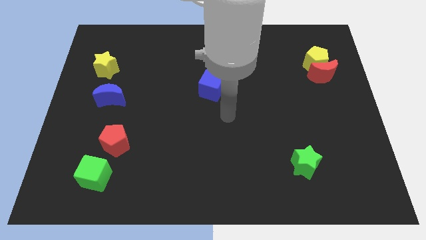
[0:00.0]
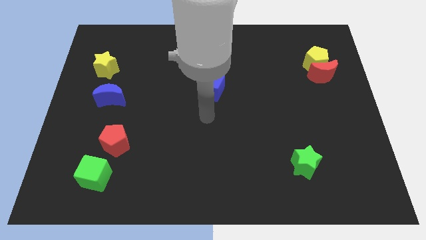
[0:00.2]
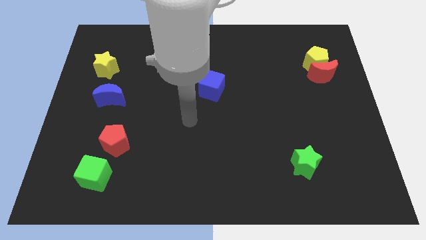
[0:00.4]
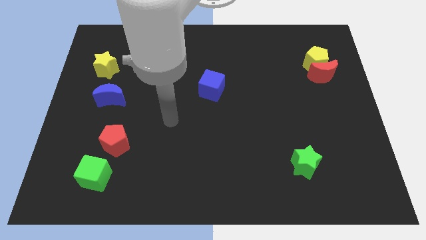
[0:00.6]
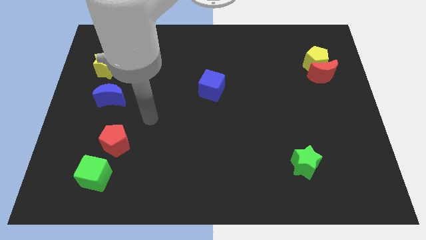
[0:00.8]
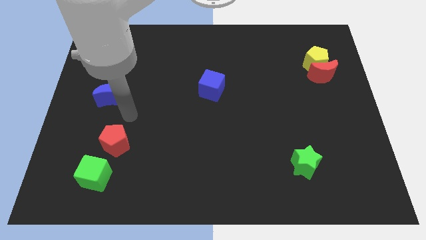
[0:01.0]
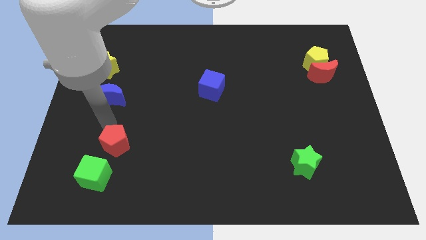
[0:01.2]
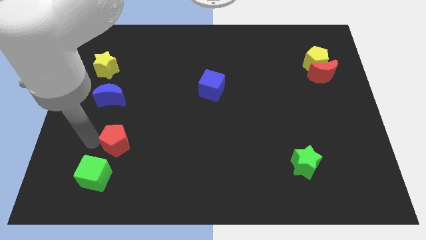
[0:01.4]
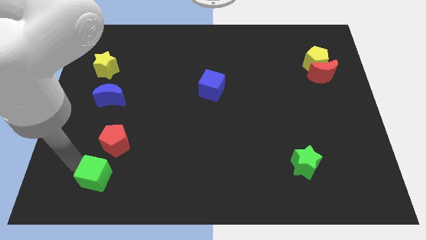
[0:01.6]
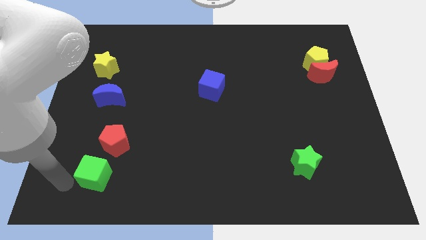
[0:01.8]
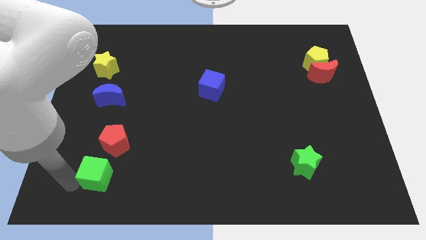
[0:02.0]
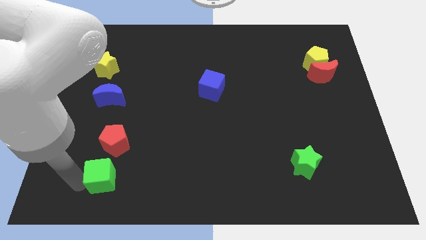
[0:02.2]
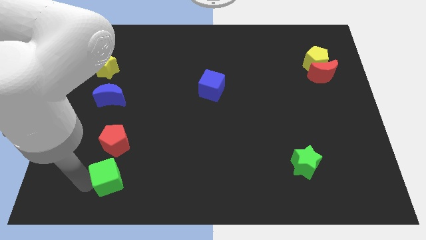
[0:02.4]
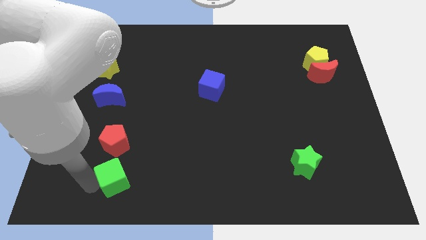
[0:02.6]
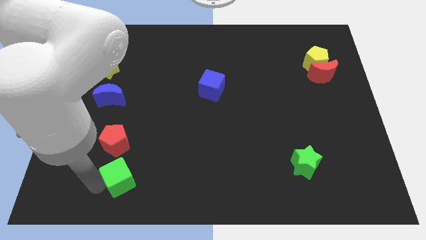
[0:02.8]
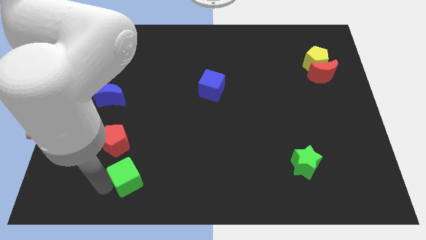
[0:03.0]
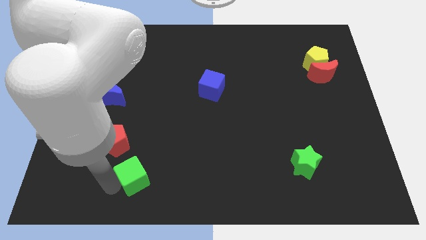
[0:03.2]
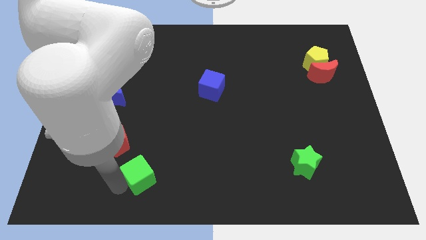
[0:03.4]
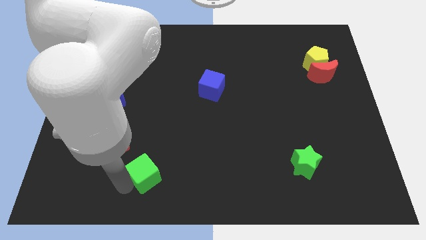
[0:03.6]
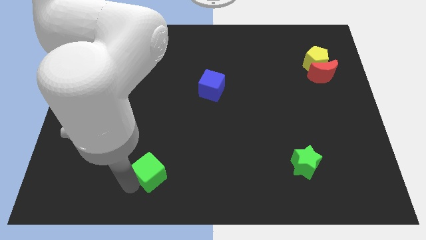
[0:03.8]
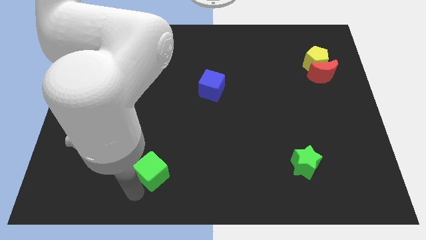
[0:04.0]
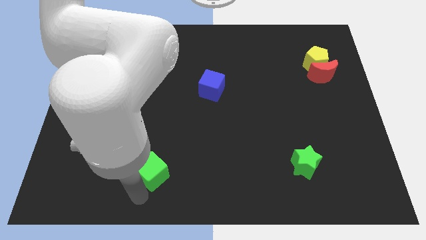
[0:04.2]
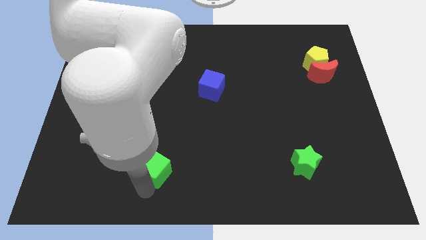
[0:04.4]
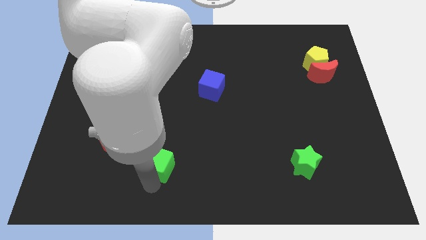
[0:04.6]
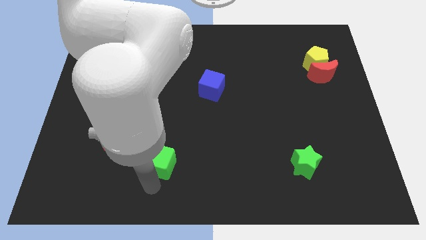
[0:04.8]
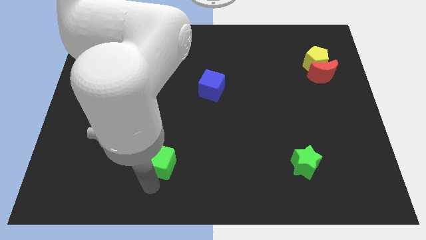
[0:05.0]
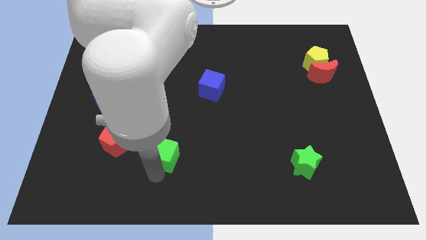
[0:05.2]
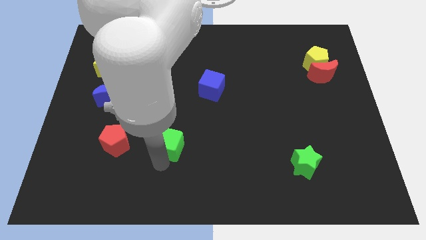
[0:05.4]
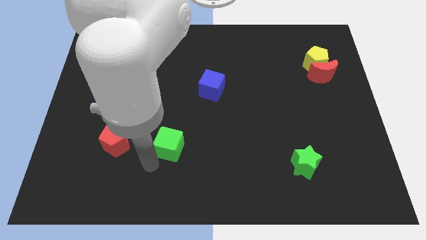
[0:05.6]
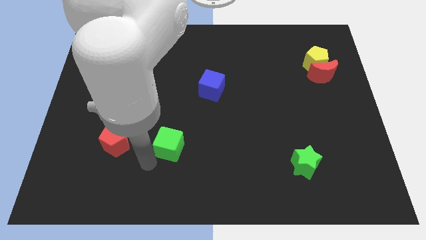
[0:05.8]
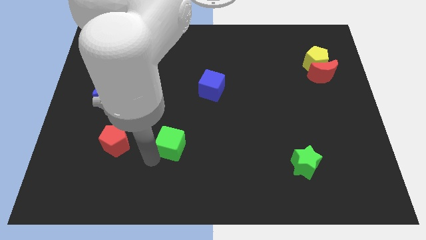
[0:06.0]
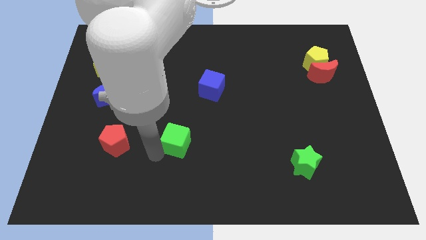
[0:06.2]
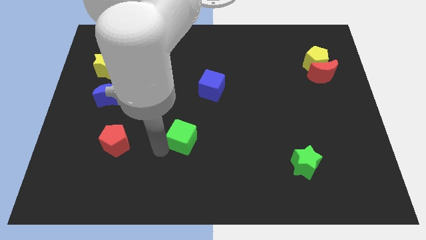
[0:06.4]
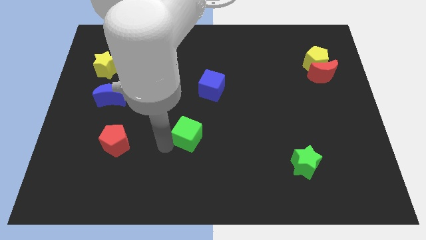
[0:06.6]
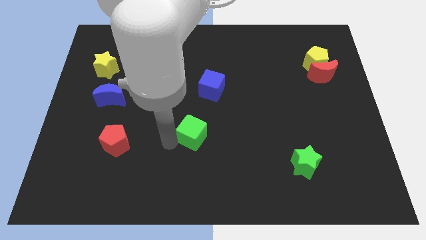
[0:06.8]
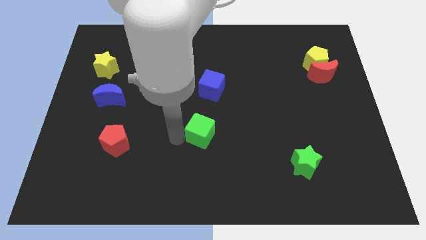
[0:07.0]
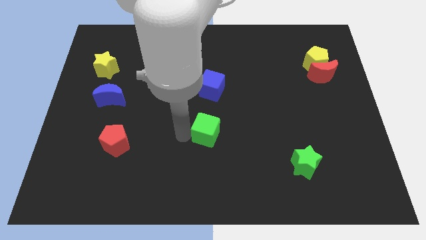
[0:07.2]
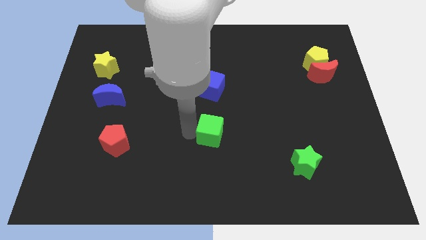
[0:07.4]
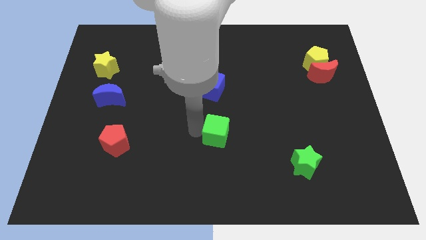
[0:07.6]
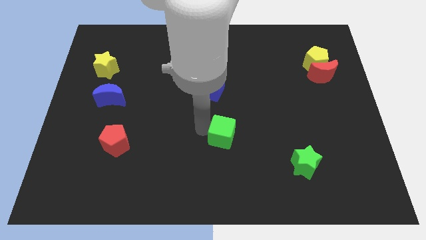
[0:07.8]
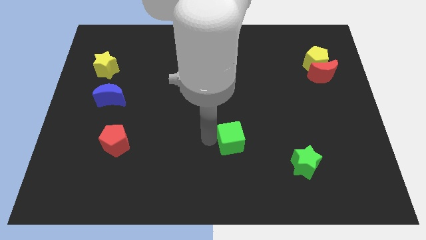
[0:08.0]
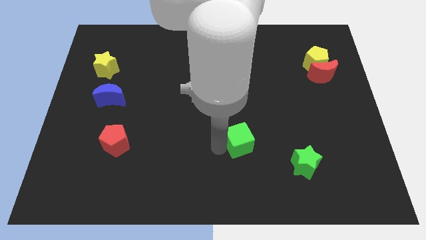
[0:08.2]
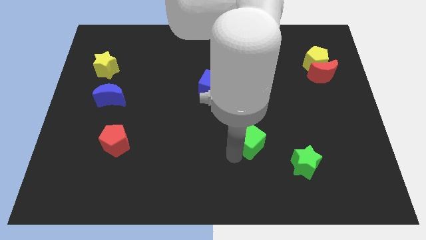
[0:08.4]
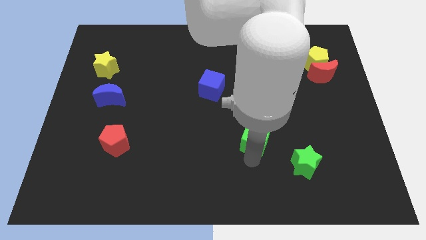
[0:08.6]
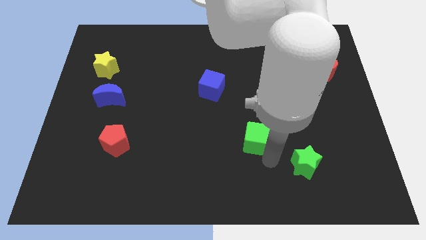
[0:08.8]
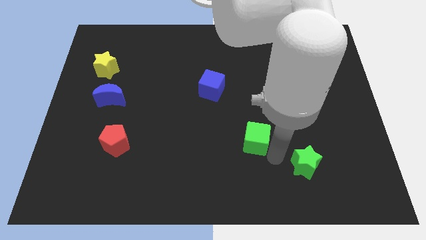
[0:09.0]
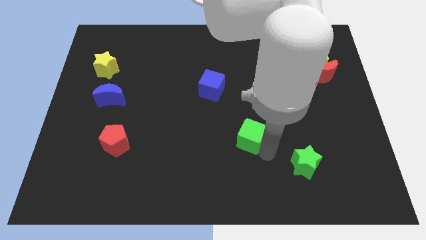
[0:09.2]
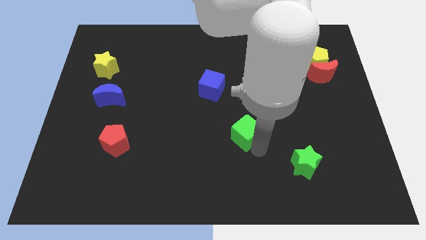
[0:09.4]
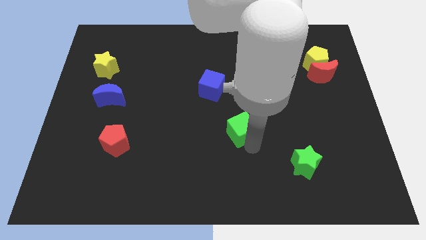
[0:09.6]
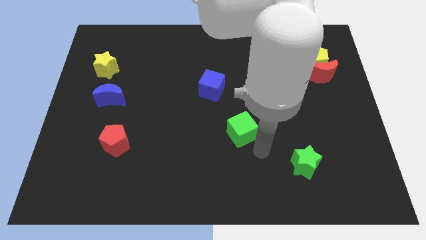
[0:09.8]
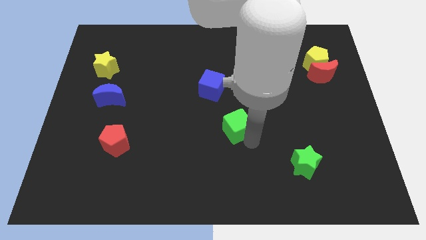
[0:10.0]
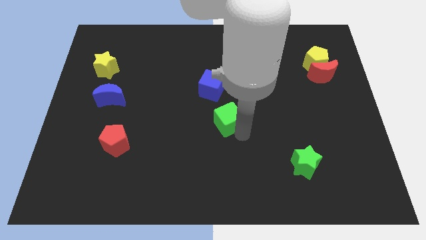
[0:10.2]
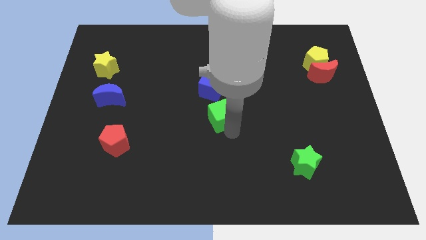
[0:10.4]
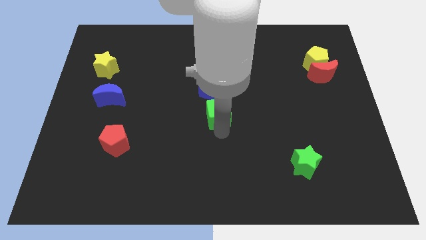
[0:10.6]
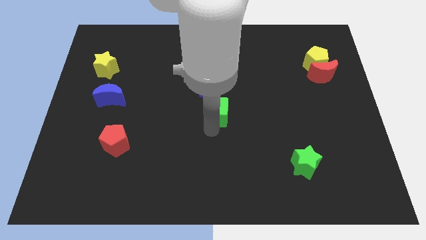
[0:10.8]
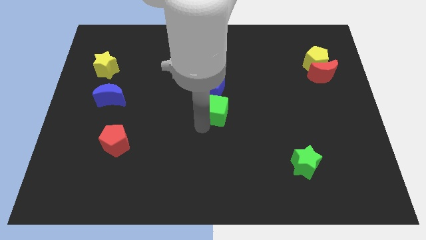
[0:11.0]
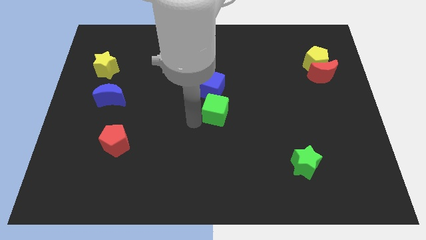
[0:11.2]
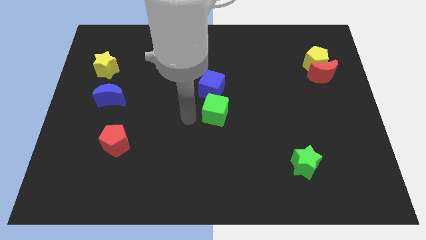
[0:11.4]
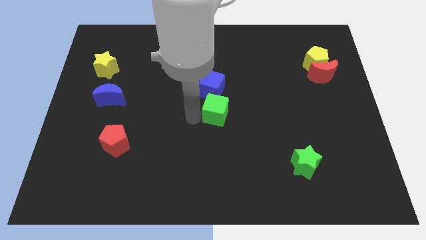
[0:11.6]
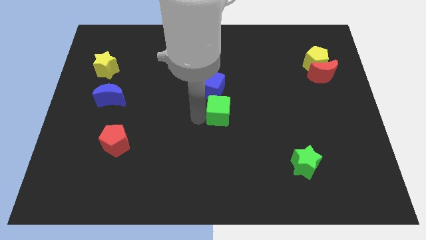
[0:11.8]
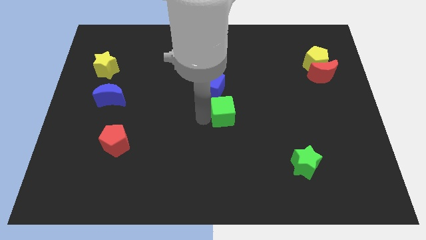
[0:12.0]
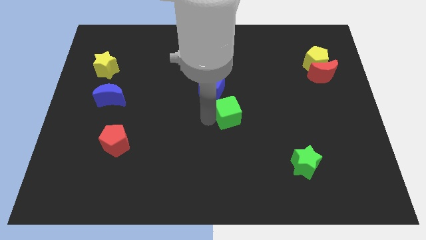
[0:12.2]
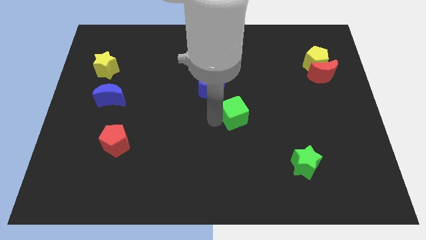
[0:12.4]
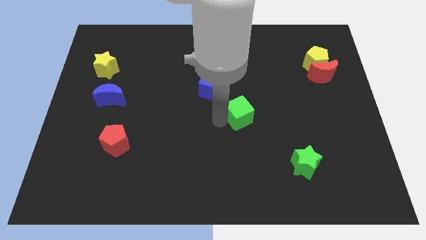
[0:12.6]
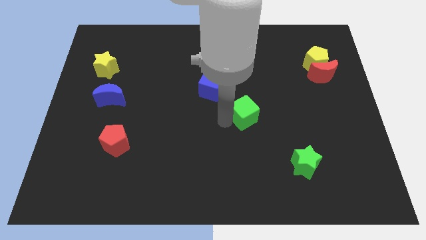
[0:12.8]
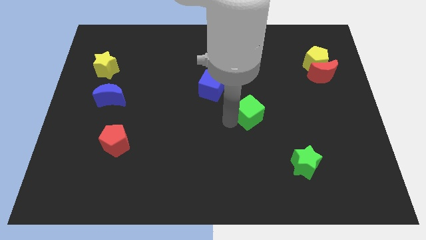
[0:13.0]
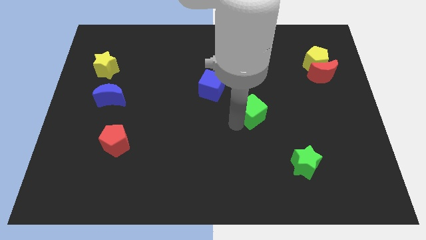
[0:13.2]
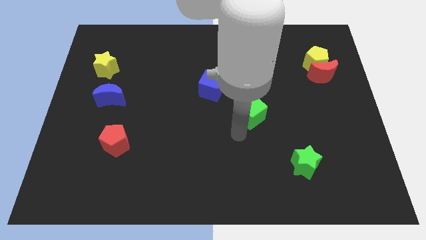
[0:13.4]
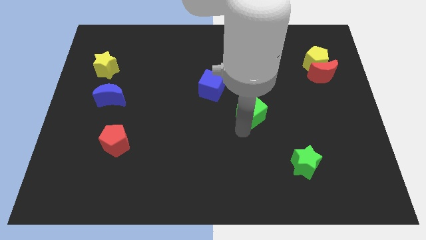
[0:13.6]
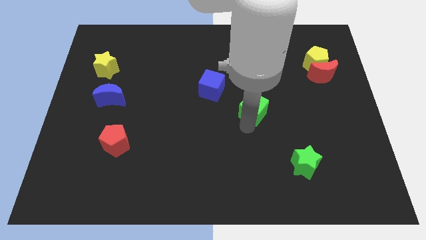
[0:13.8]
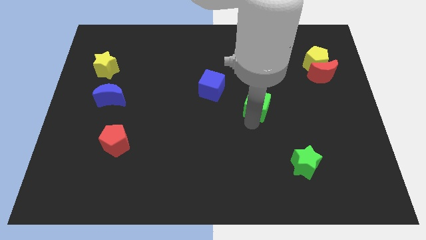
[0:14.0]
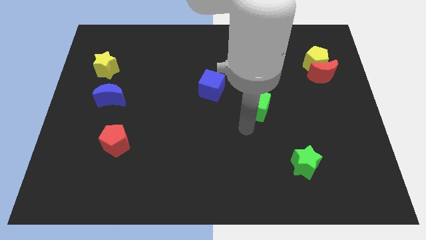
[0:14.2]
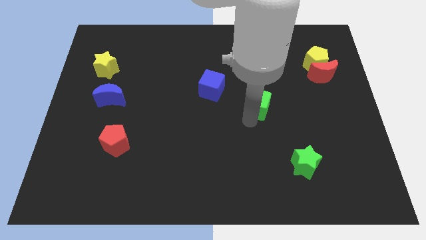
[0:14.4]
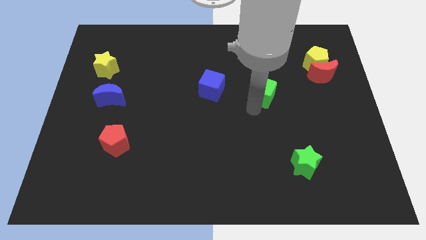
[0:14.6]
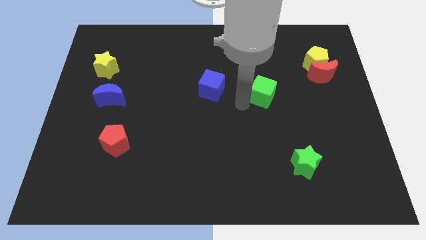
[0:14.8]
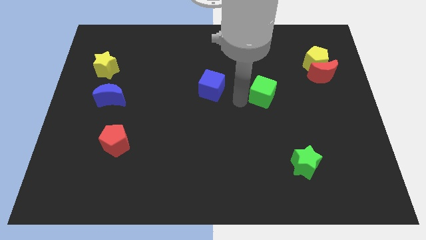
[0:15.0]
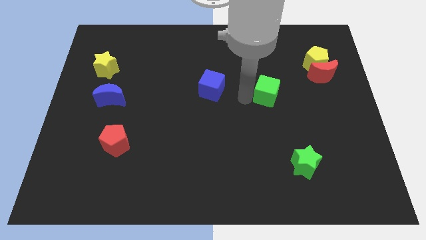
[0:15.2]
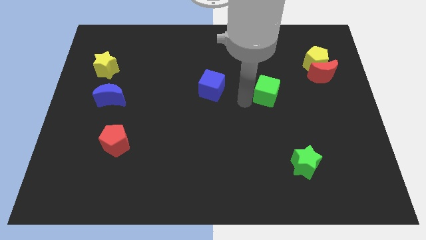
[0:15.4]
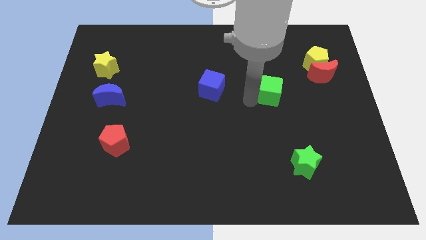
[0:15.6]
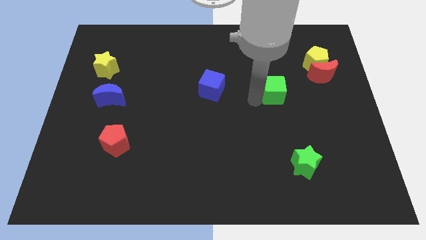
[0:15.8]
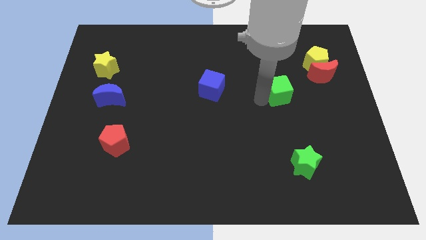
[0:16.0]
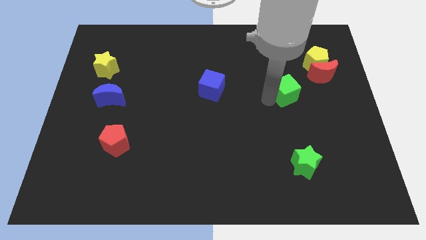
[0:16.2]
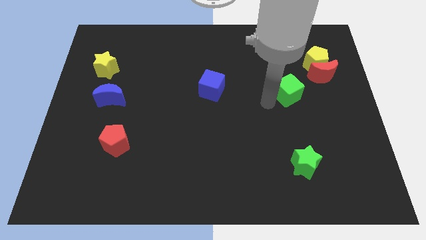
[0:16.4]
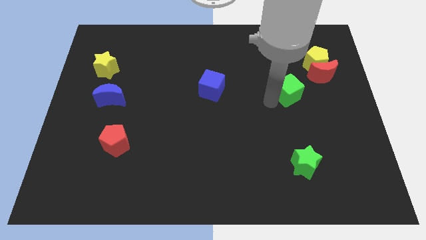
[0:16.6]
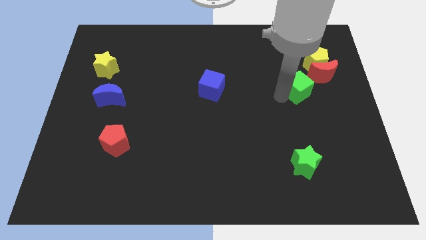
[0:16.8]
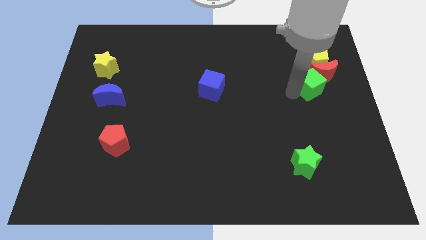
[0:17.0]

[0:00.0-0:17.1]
push the green cube towards the red moon
